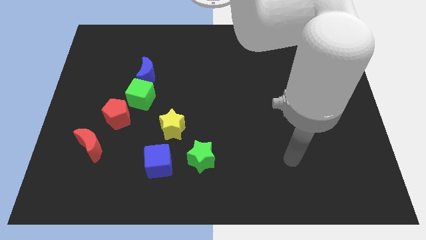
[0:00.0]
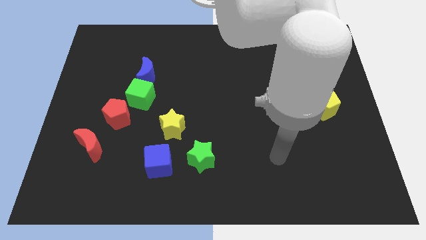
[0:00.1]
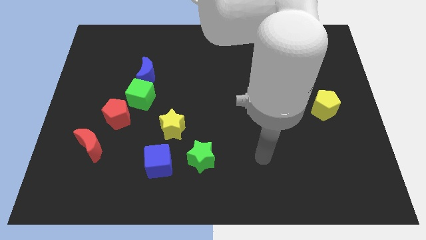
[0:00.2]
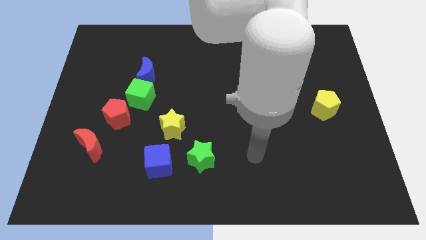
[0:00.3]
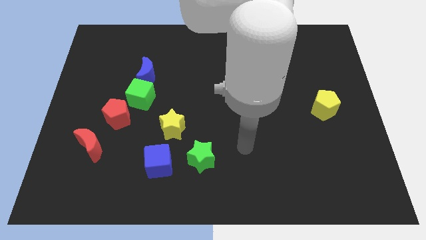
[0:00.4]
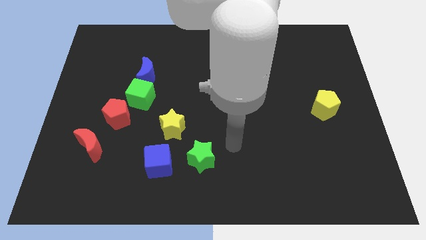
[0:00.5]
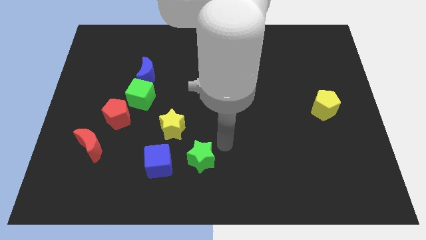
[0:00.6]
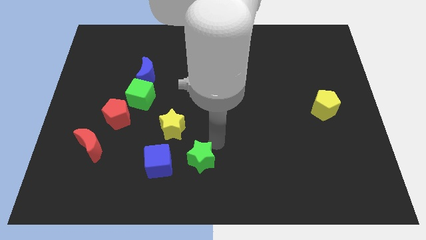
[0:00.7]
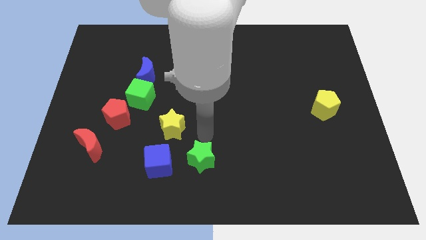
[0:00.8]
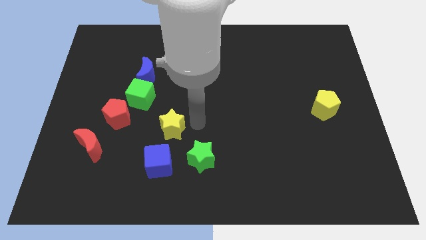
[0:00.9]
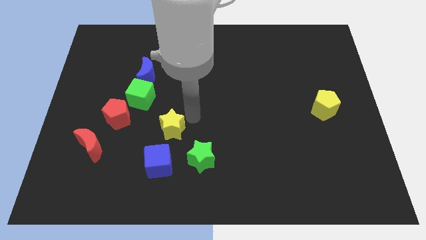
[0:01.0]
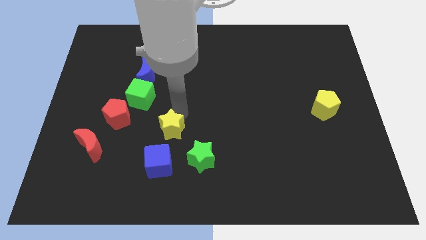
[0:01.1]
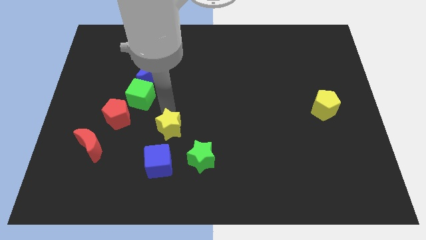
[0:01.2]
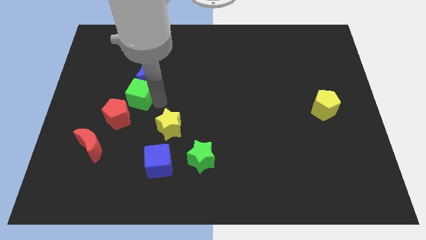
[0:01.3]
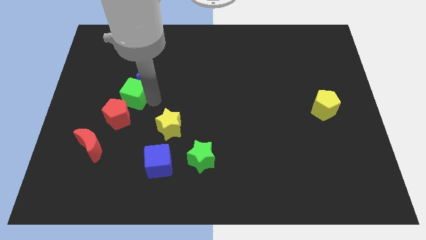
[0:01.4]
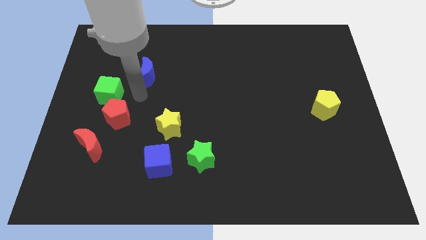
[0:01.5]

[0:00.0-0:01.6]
separate the blue moon from the green cube

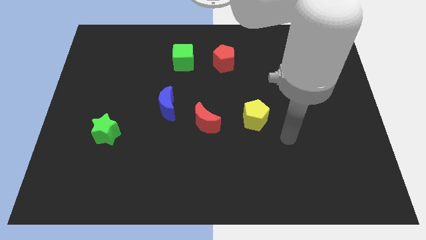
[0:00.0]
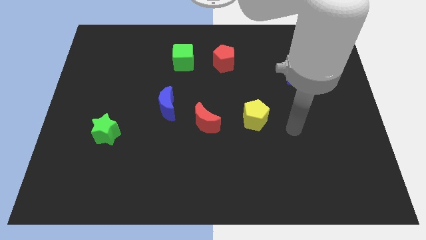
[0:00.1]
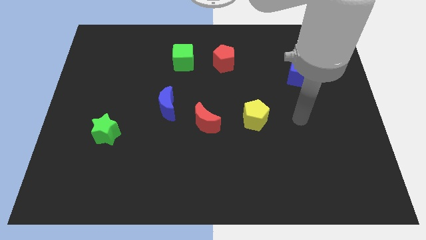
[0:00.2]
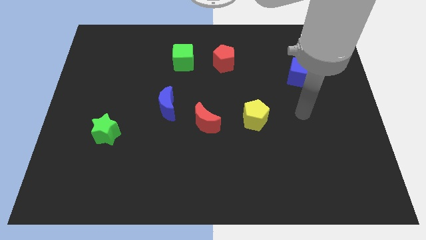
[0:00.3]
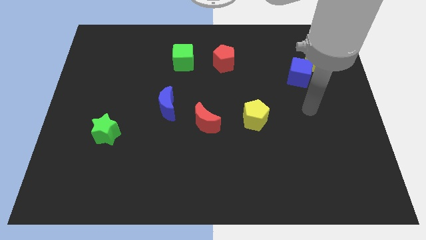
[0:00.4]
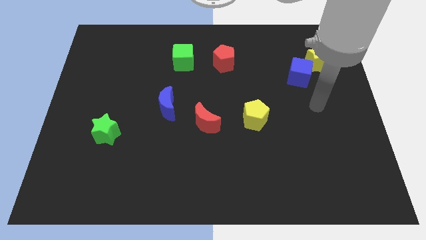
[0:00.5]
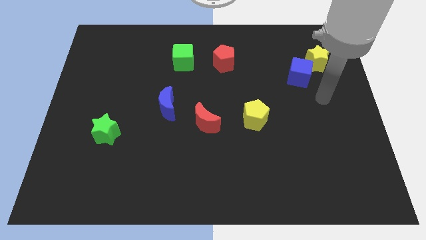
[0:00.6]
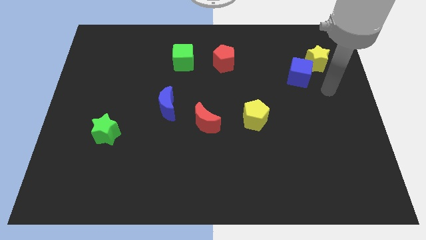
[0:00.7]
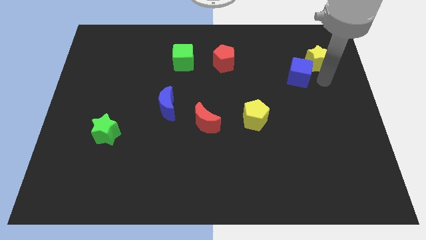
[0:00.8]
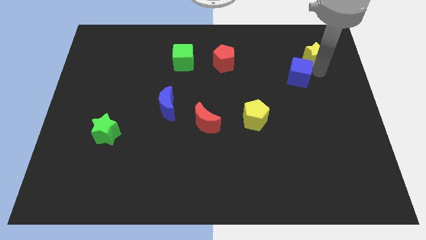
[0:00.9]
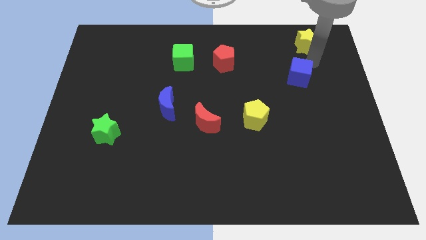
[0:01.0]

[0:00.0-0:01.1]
move the blue cube away from the yellow star

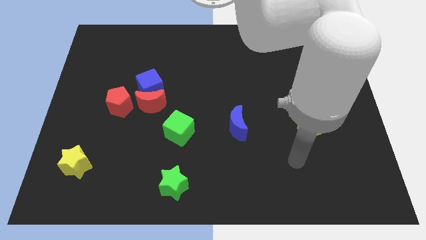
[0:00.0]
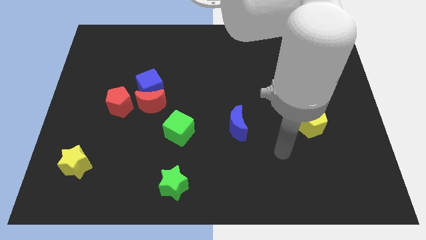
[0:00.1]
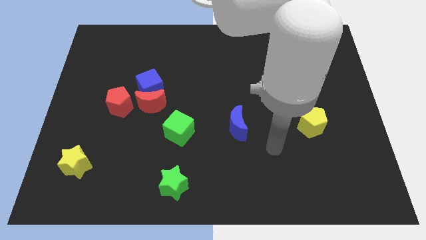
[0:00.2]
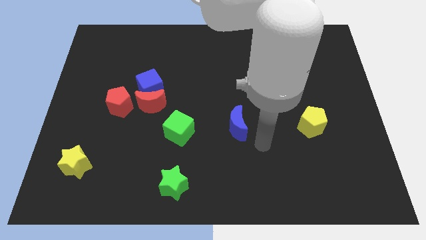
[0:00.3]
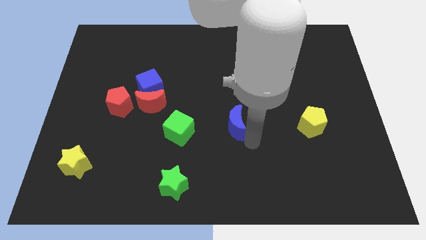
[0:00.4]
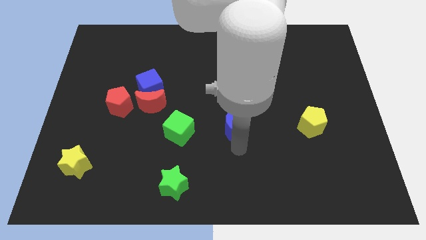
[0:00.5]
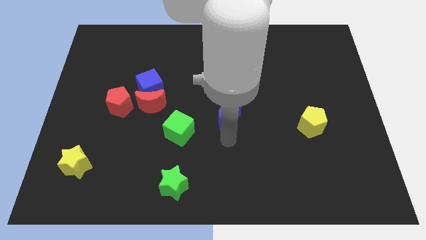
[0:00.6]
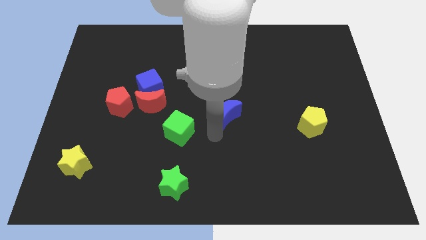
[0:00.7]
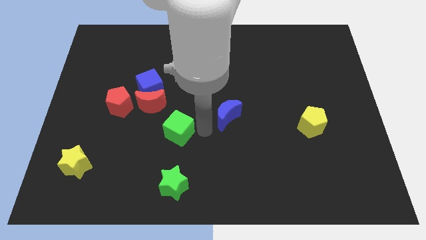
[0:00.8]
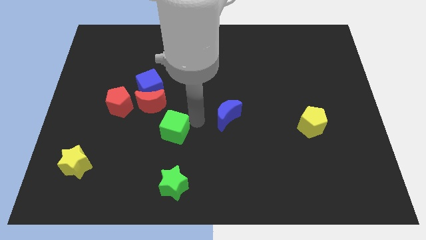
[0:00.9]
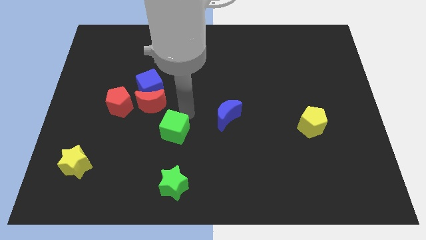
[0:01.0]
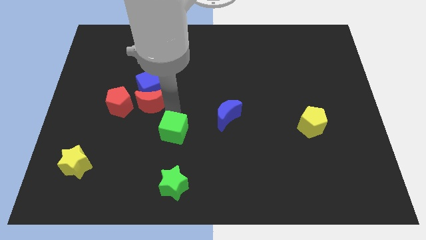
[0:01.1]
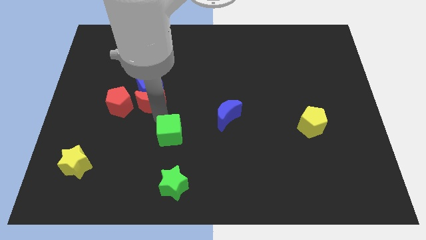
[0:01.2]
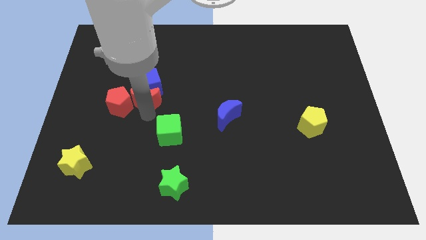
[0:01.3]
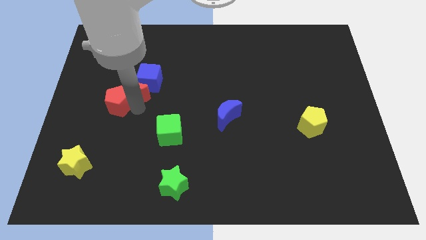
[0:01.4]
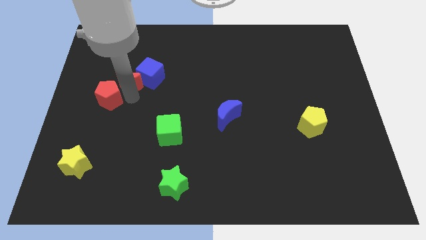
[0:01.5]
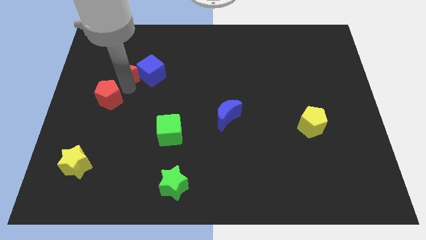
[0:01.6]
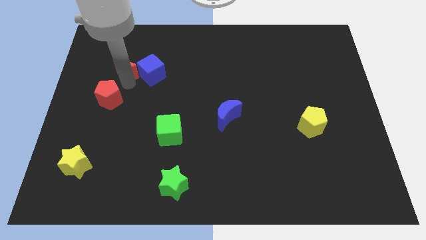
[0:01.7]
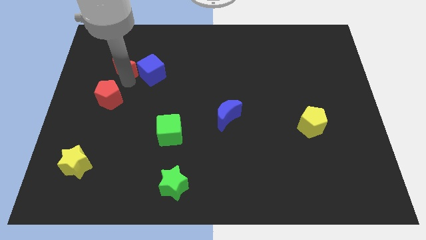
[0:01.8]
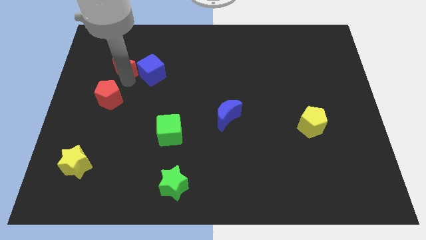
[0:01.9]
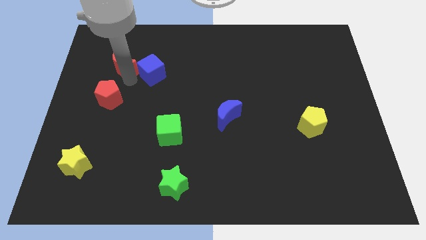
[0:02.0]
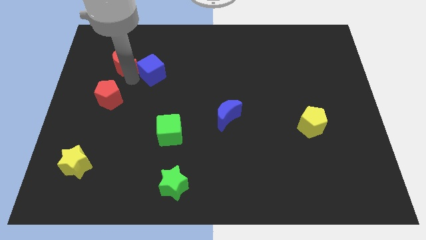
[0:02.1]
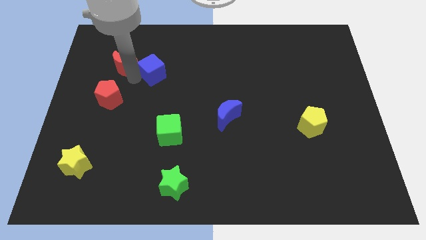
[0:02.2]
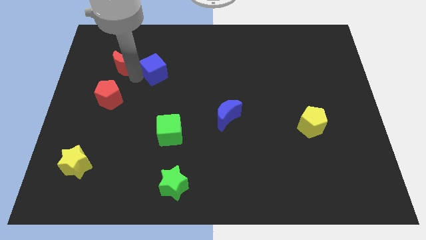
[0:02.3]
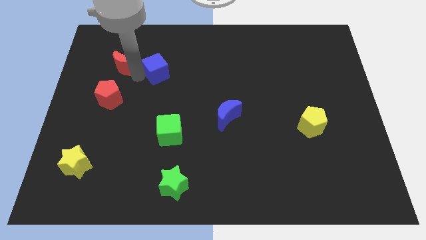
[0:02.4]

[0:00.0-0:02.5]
move the blue cube away from the red moon and red pentagon

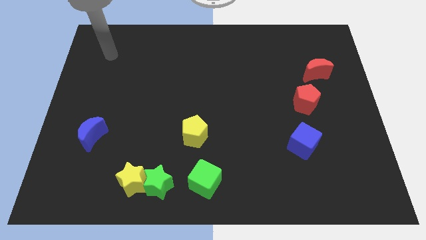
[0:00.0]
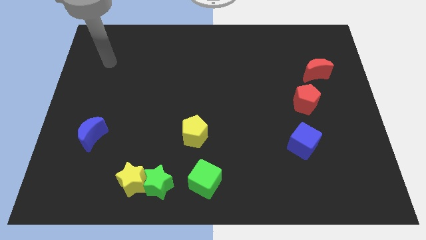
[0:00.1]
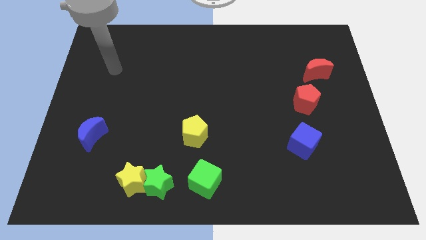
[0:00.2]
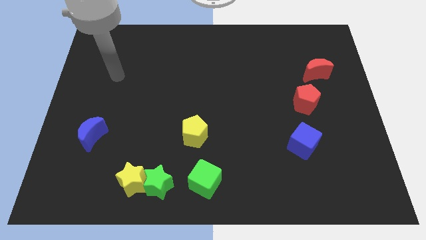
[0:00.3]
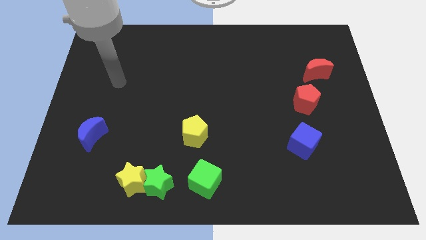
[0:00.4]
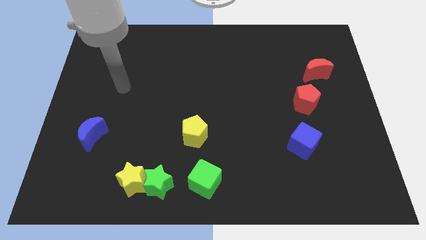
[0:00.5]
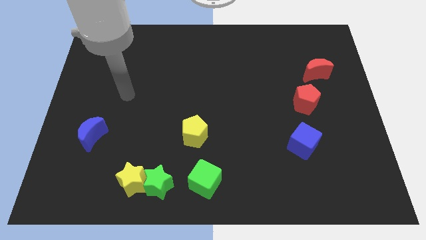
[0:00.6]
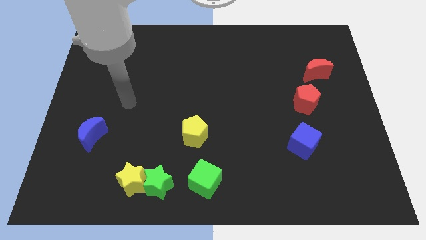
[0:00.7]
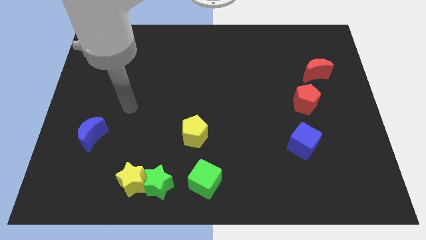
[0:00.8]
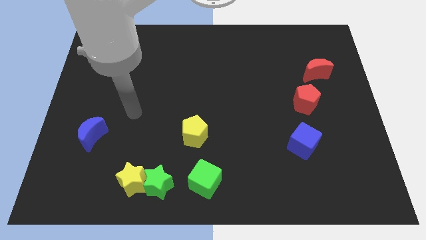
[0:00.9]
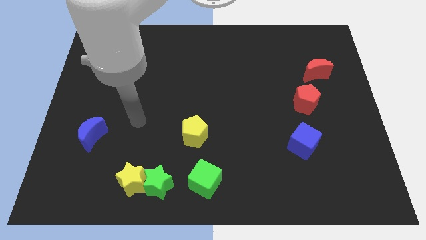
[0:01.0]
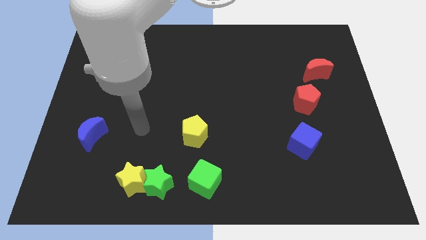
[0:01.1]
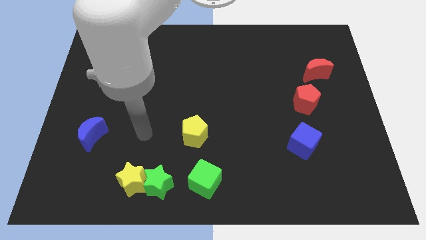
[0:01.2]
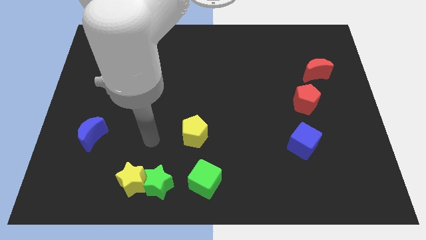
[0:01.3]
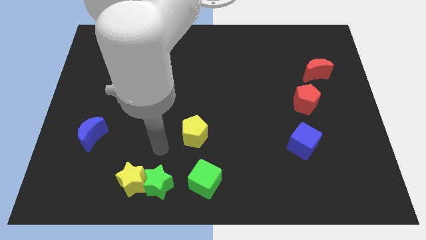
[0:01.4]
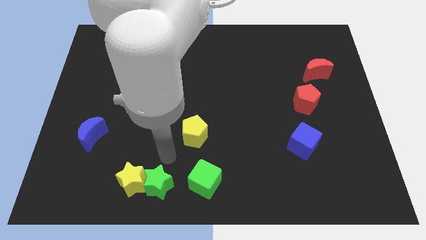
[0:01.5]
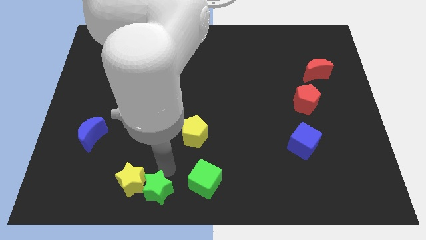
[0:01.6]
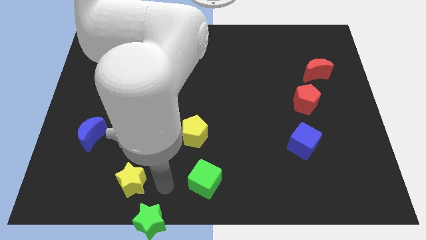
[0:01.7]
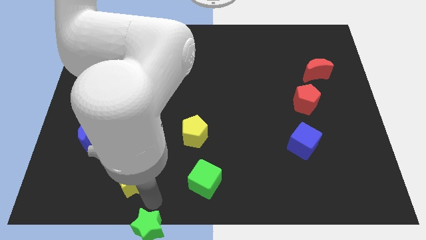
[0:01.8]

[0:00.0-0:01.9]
pull the yellow star apart from the green star

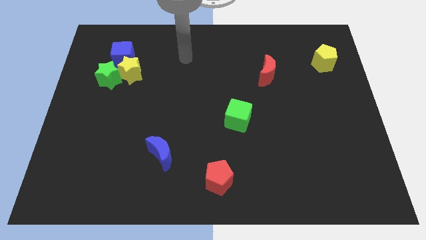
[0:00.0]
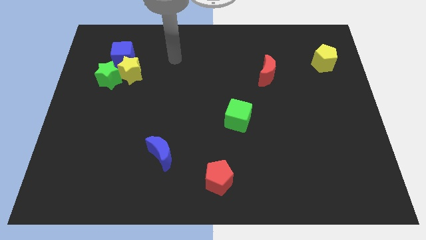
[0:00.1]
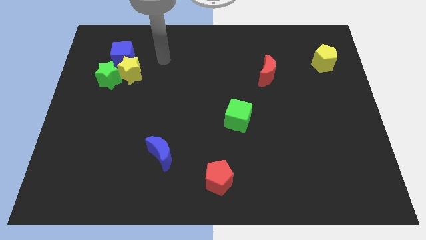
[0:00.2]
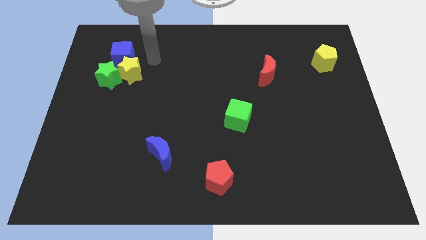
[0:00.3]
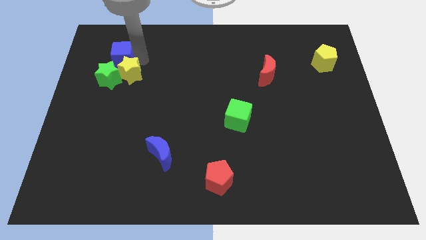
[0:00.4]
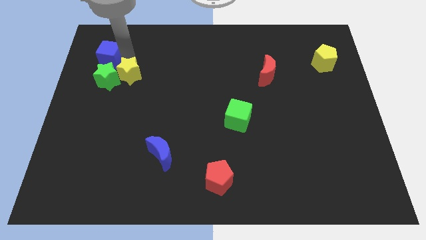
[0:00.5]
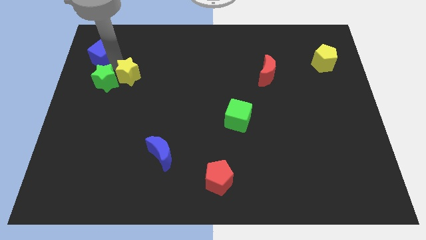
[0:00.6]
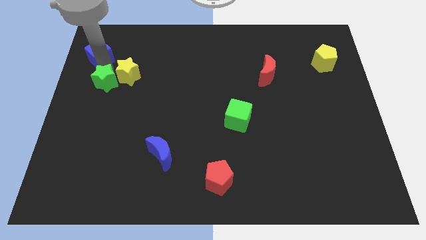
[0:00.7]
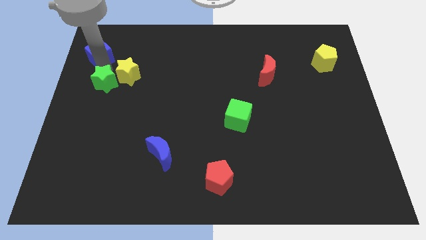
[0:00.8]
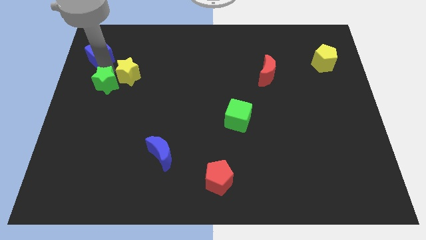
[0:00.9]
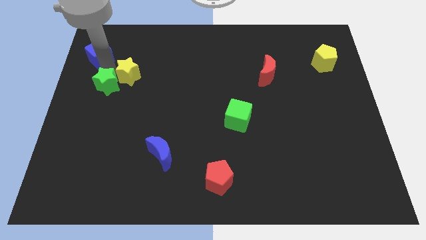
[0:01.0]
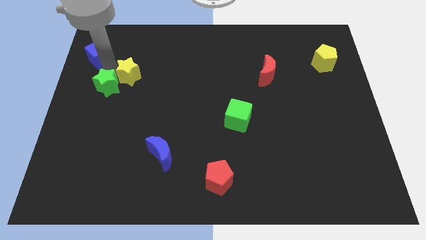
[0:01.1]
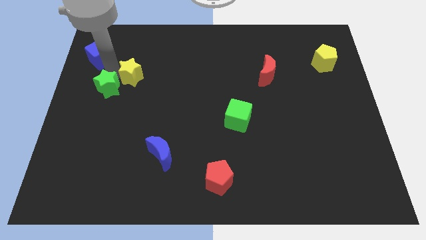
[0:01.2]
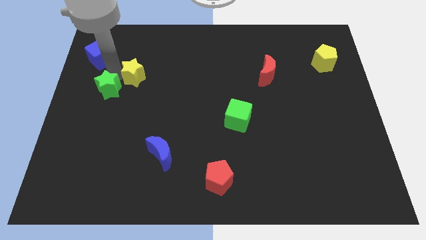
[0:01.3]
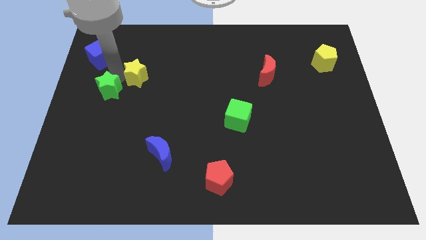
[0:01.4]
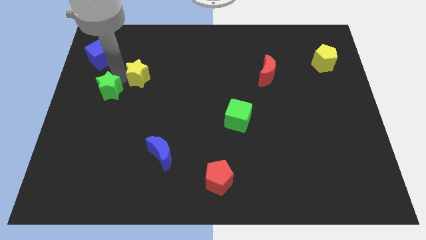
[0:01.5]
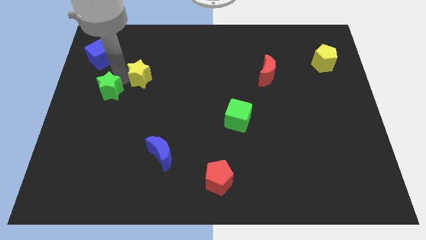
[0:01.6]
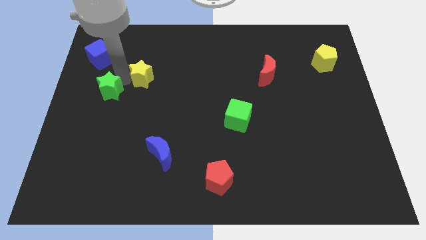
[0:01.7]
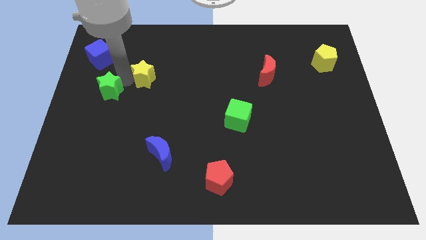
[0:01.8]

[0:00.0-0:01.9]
pull the yellow star apart from the green star and blue cube

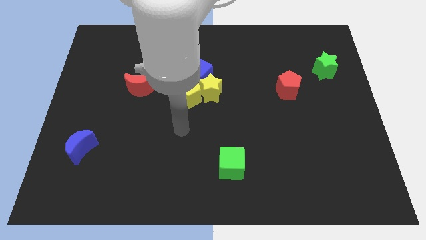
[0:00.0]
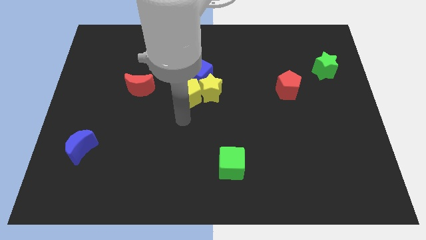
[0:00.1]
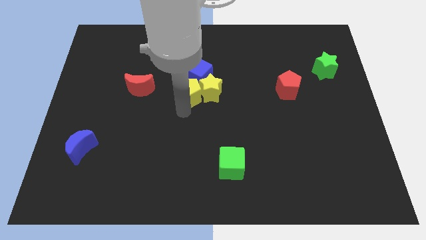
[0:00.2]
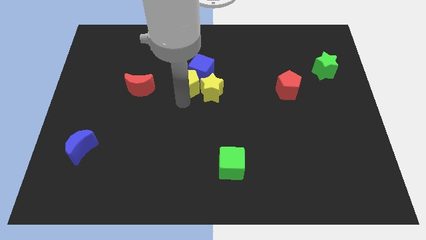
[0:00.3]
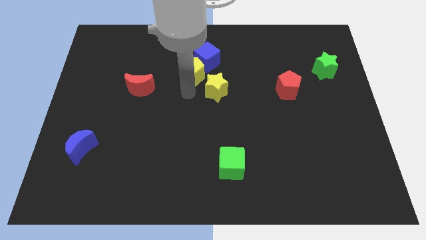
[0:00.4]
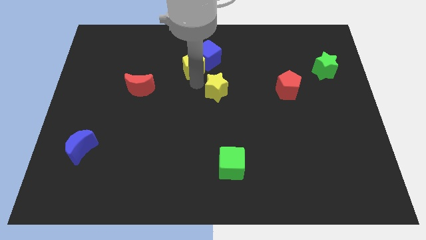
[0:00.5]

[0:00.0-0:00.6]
separate the yellow star from the yellow pentagon and blue cube
